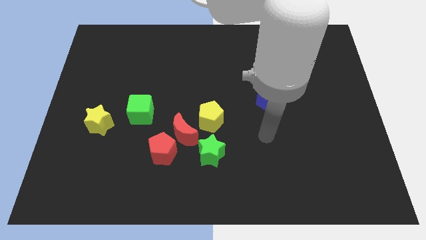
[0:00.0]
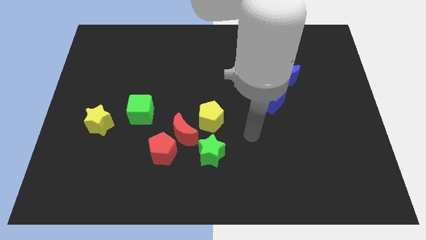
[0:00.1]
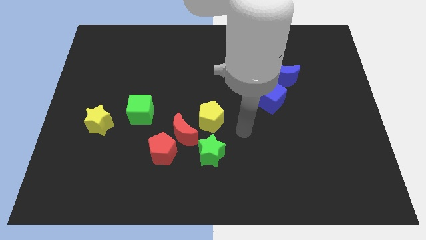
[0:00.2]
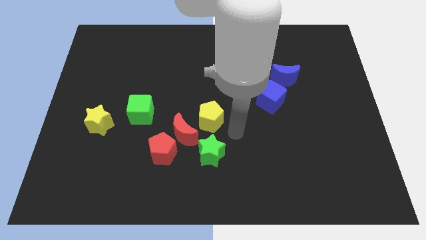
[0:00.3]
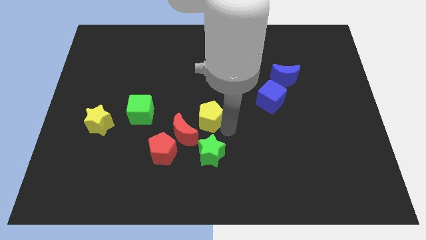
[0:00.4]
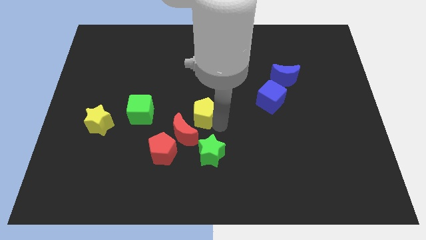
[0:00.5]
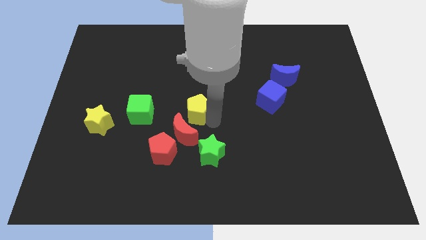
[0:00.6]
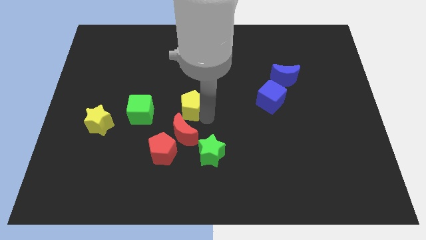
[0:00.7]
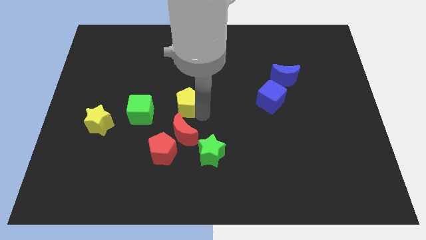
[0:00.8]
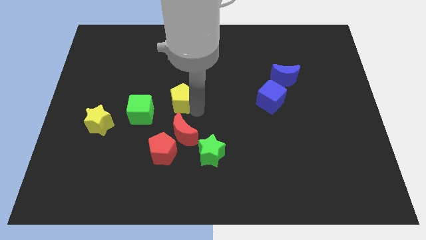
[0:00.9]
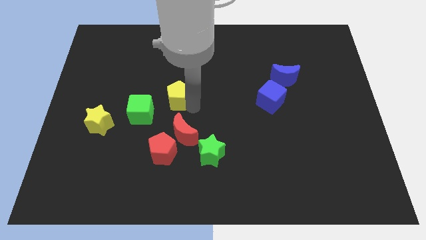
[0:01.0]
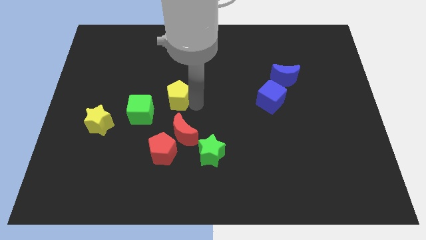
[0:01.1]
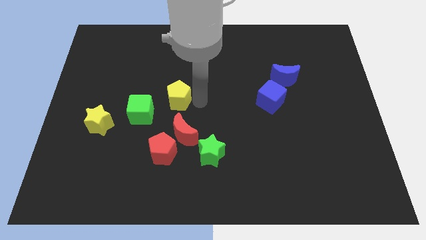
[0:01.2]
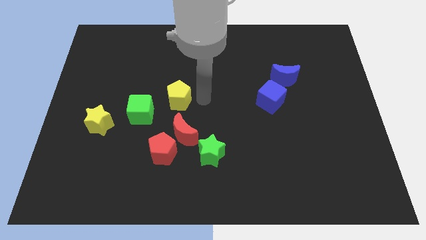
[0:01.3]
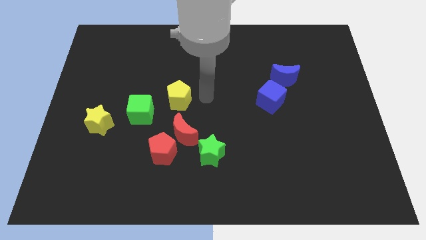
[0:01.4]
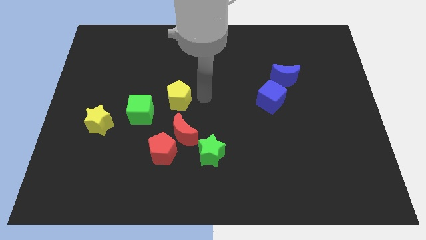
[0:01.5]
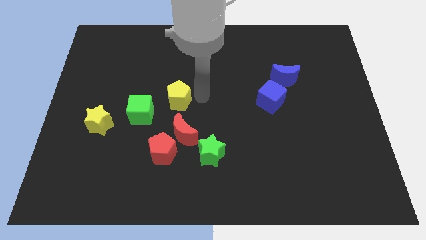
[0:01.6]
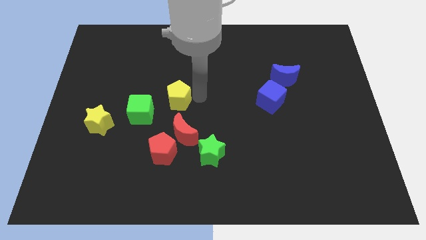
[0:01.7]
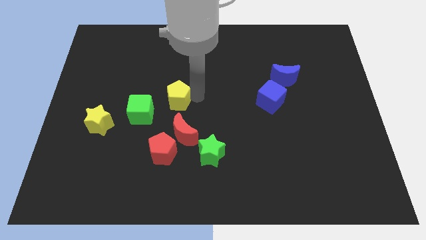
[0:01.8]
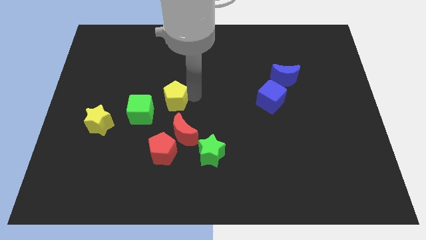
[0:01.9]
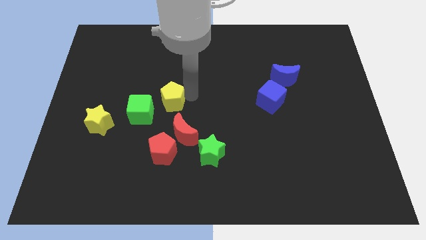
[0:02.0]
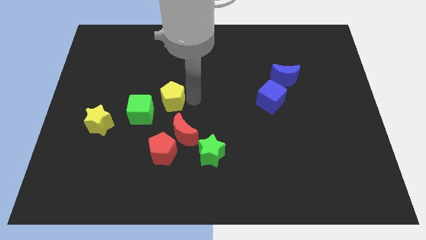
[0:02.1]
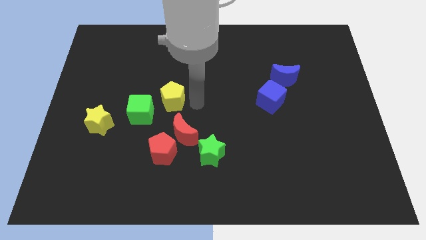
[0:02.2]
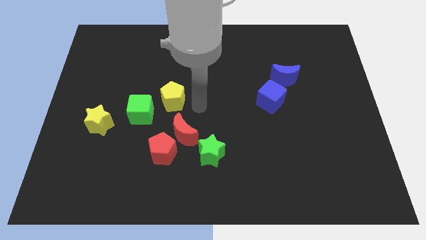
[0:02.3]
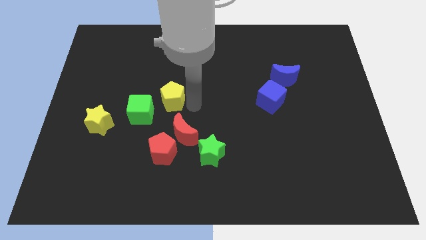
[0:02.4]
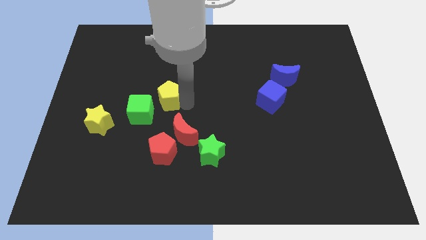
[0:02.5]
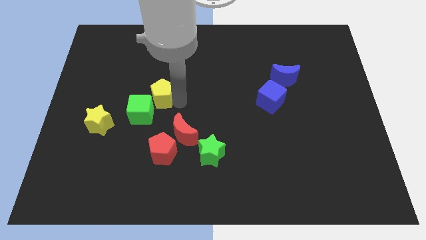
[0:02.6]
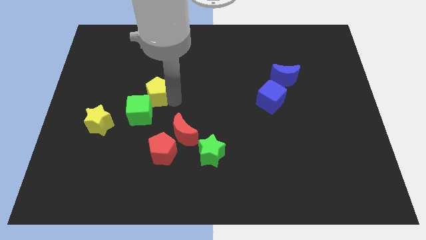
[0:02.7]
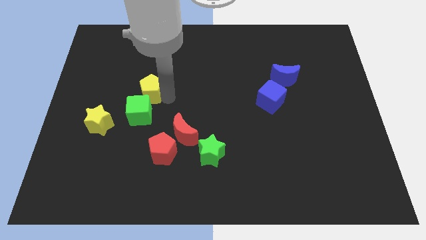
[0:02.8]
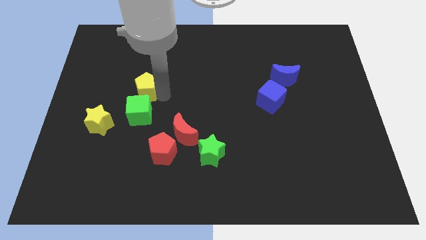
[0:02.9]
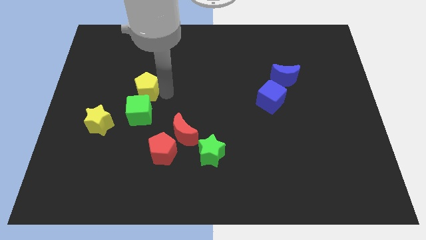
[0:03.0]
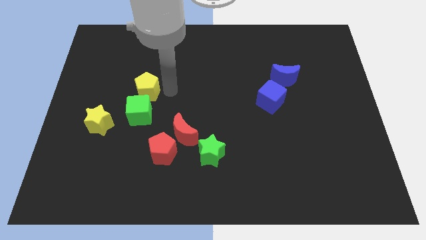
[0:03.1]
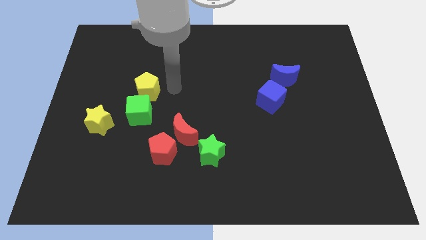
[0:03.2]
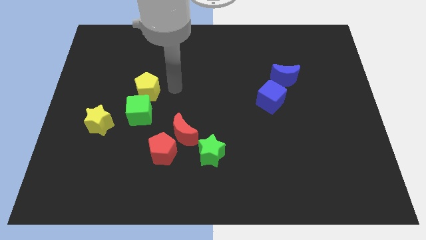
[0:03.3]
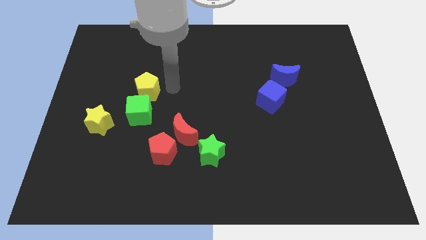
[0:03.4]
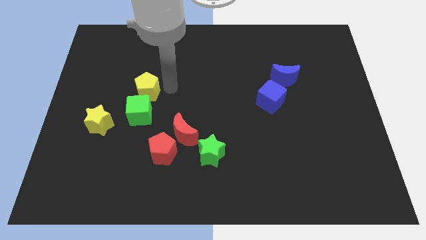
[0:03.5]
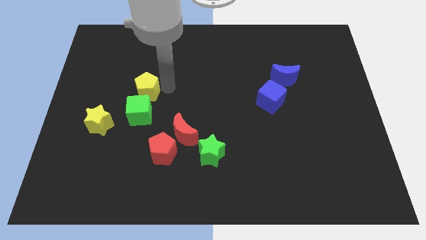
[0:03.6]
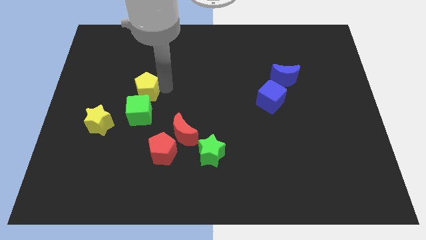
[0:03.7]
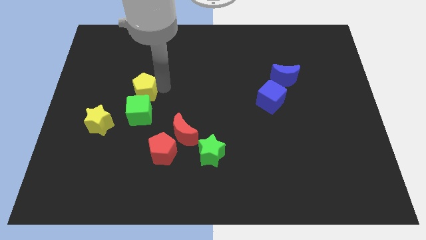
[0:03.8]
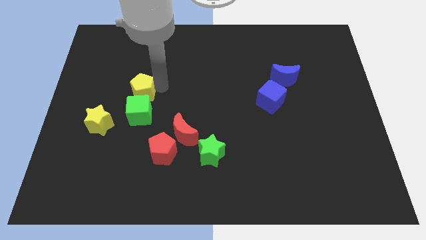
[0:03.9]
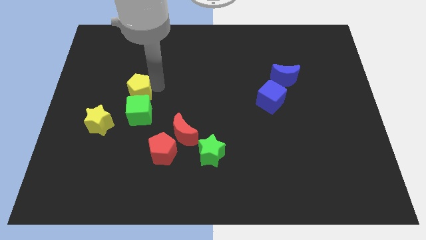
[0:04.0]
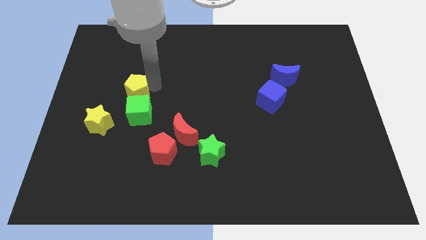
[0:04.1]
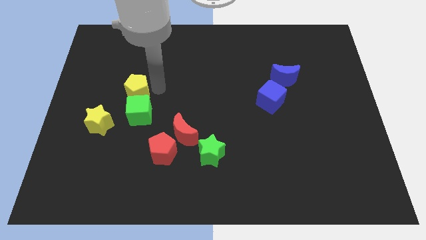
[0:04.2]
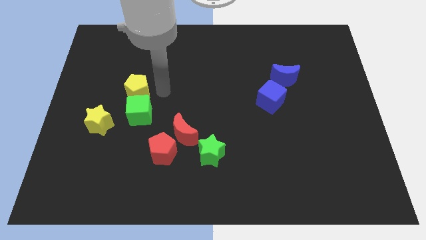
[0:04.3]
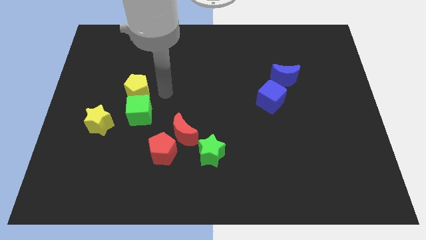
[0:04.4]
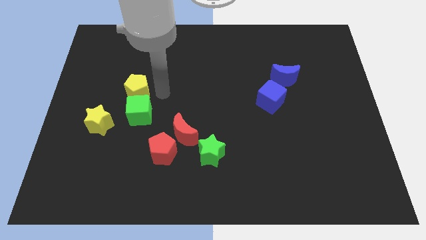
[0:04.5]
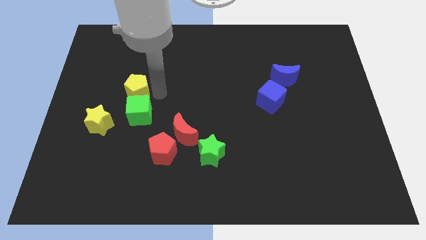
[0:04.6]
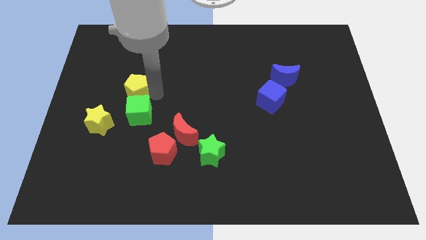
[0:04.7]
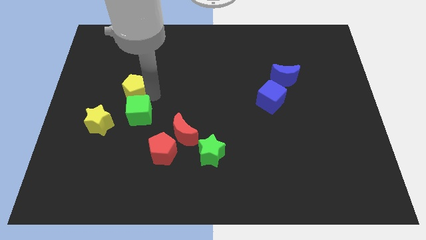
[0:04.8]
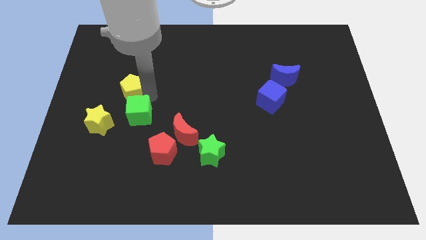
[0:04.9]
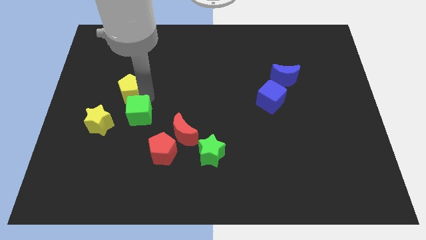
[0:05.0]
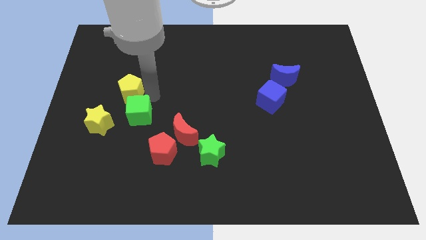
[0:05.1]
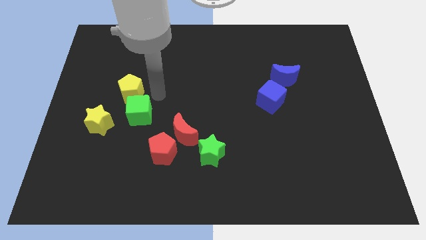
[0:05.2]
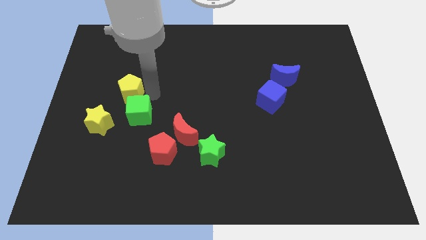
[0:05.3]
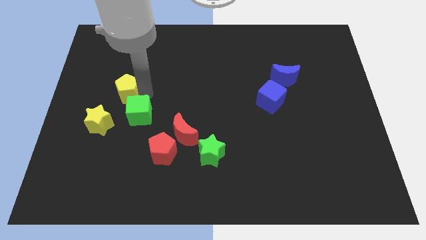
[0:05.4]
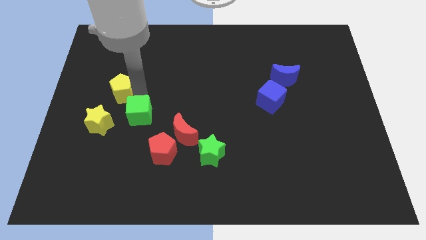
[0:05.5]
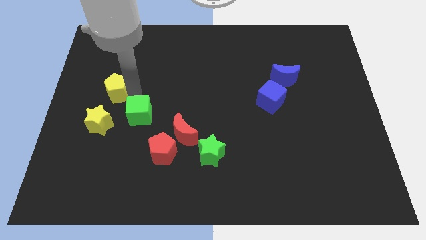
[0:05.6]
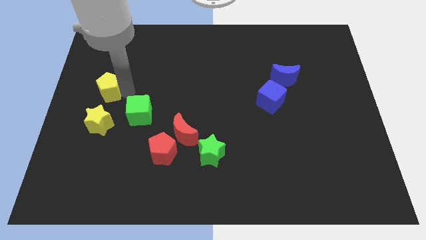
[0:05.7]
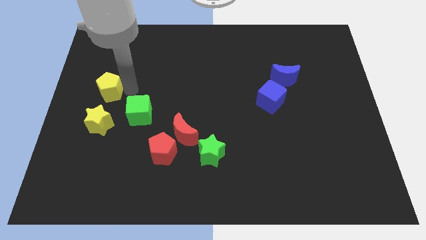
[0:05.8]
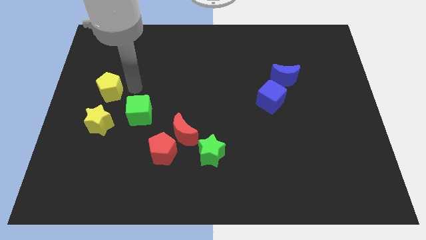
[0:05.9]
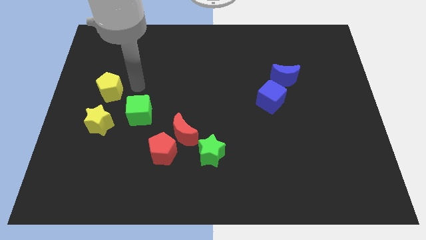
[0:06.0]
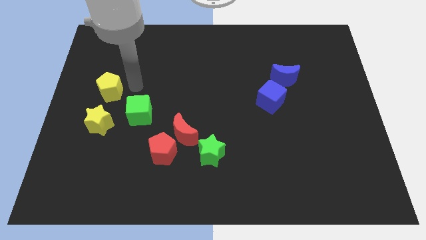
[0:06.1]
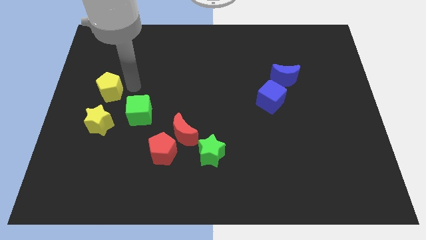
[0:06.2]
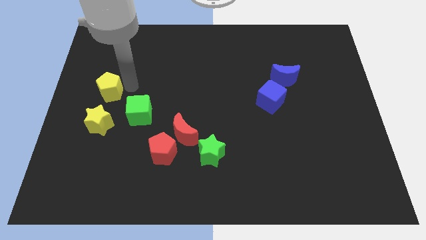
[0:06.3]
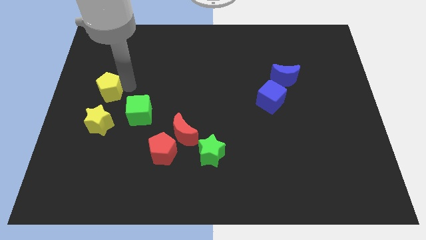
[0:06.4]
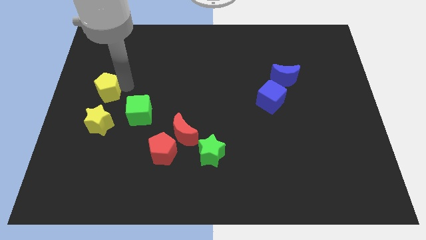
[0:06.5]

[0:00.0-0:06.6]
push the yellow pentagon to the center left
